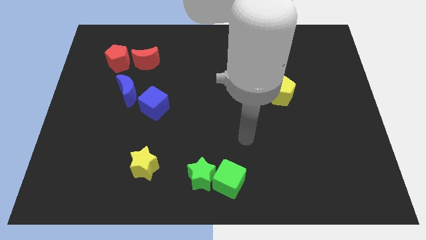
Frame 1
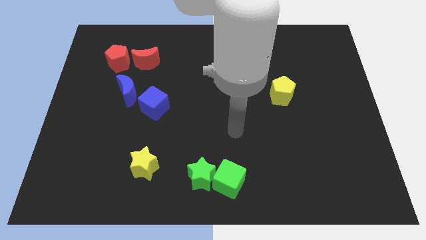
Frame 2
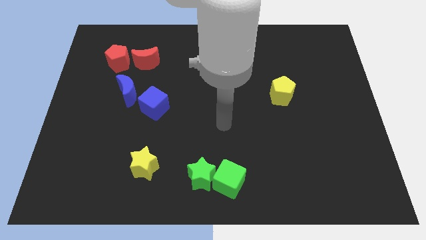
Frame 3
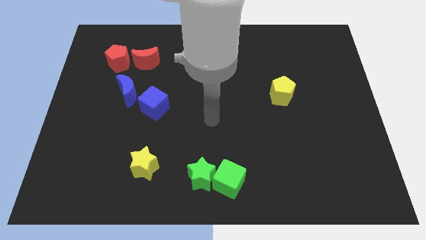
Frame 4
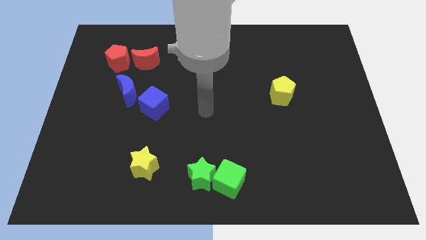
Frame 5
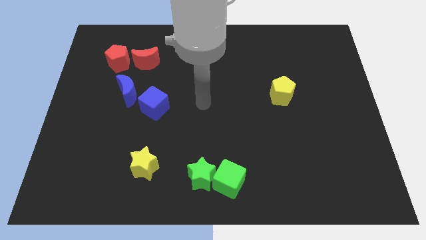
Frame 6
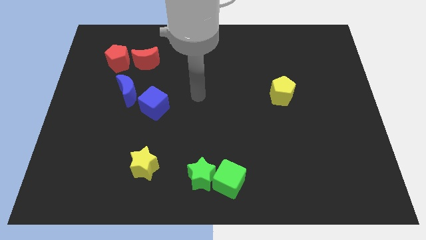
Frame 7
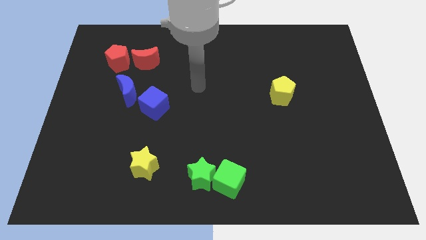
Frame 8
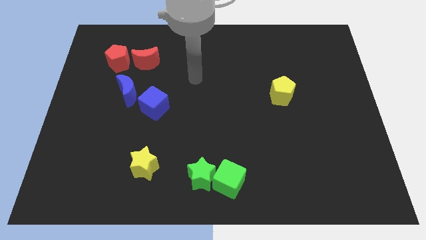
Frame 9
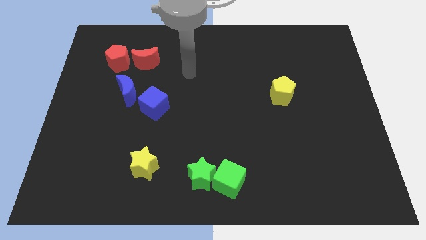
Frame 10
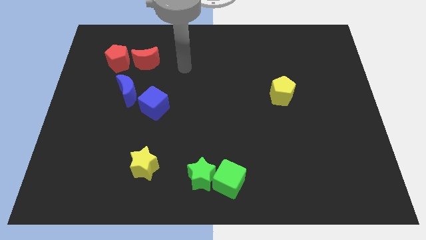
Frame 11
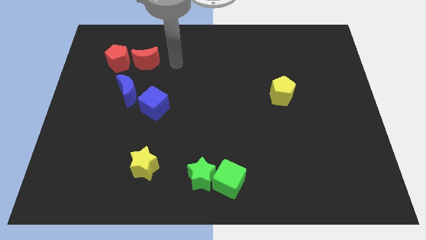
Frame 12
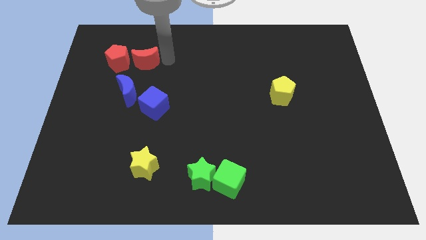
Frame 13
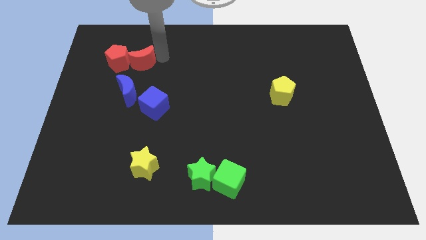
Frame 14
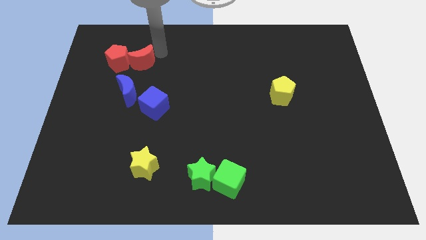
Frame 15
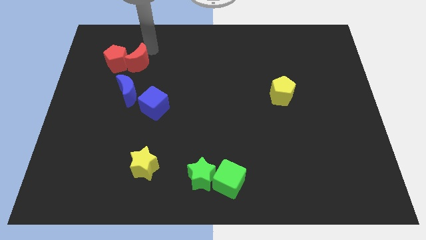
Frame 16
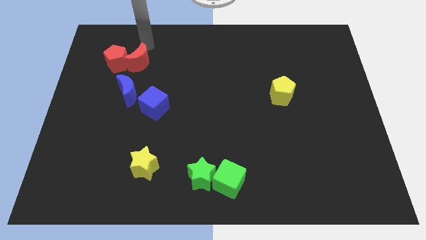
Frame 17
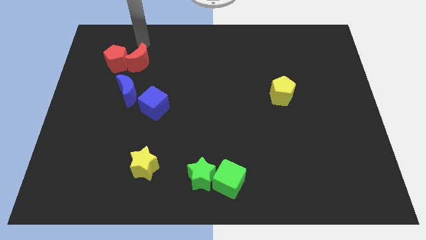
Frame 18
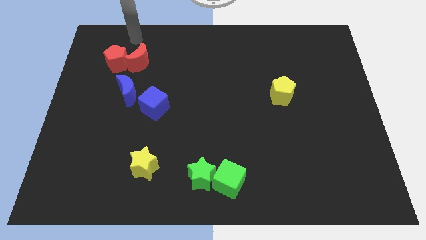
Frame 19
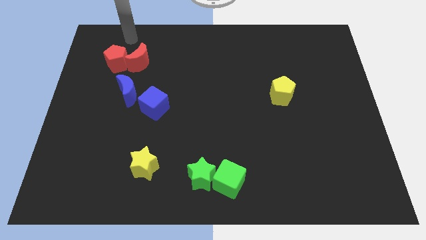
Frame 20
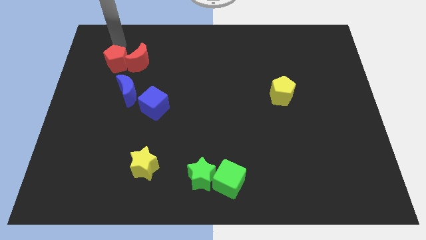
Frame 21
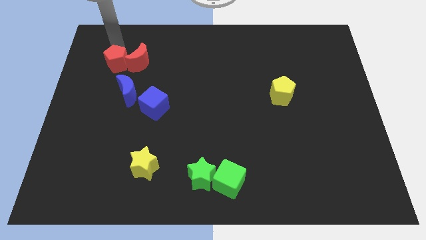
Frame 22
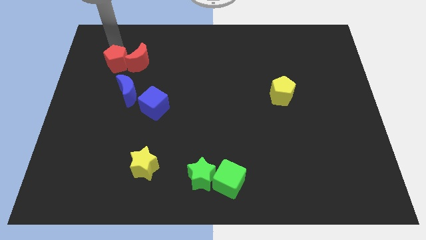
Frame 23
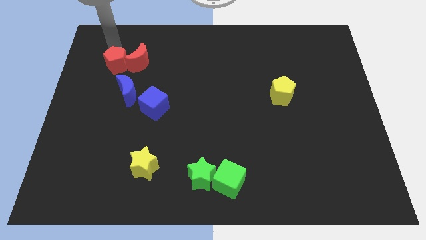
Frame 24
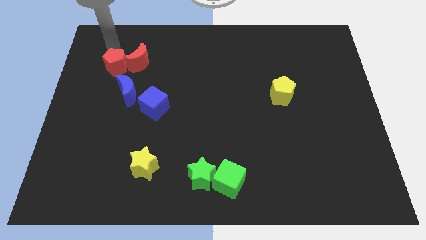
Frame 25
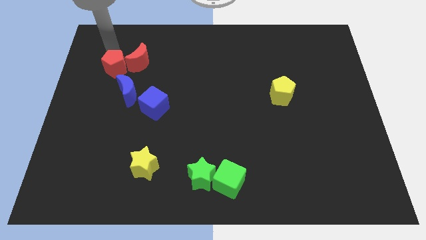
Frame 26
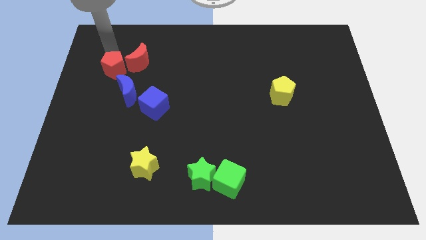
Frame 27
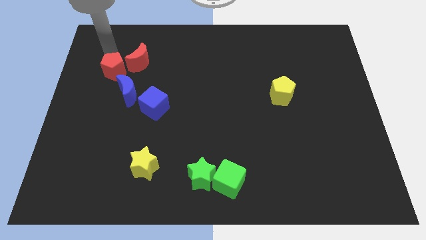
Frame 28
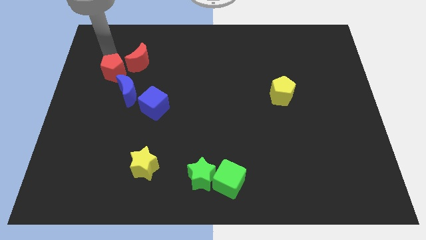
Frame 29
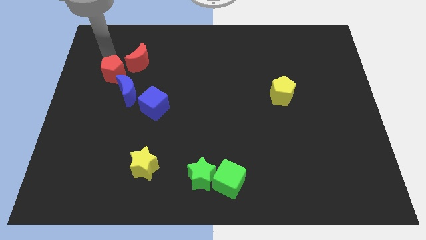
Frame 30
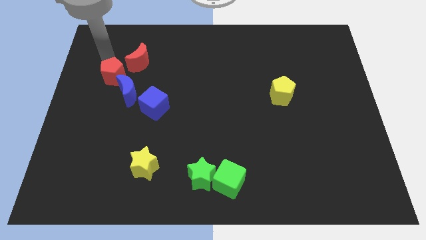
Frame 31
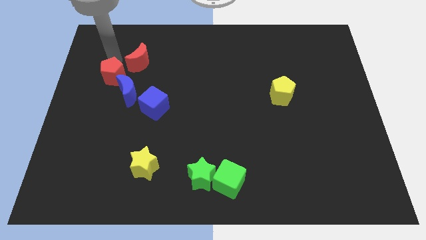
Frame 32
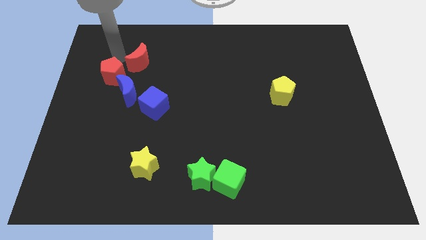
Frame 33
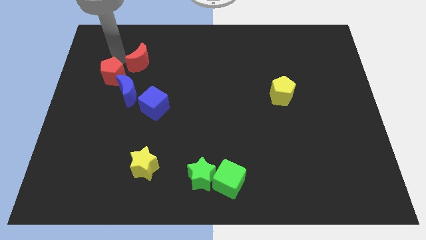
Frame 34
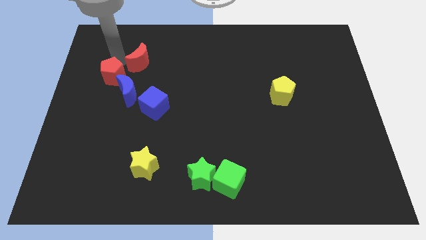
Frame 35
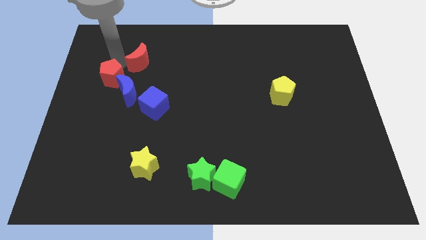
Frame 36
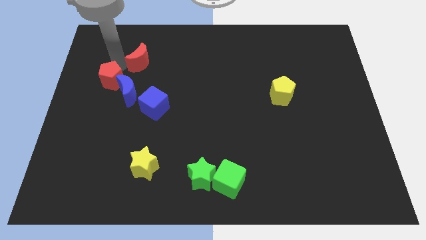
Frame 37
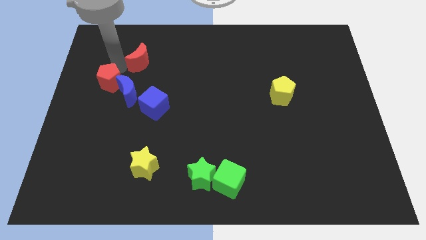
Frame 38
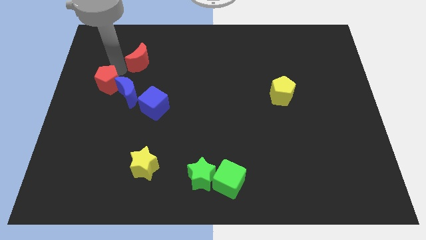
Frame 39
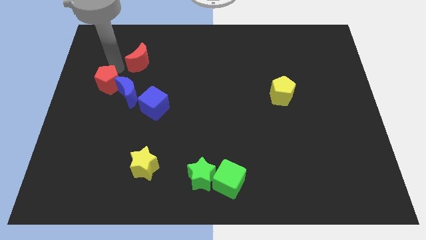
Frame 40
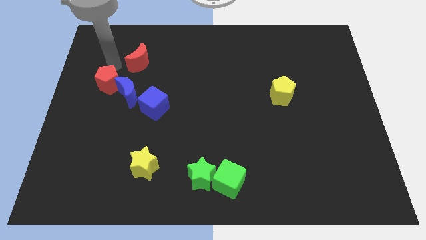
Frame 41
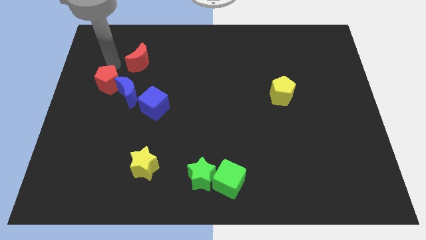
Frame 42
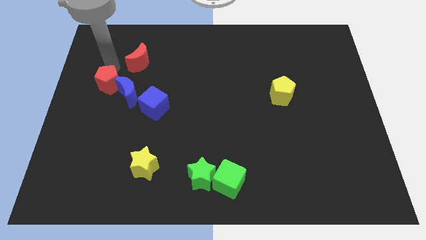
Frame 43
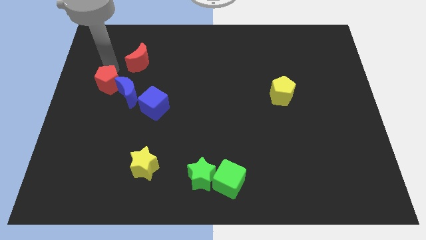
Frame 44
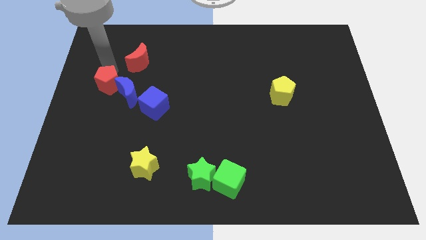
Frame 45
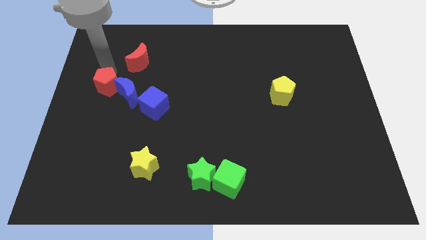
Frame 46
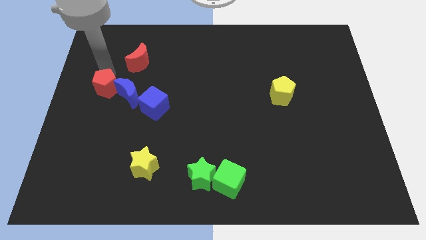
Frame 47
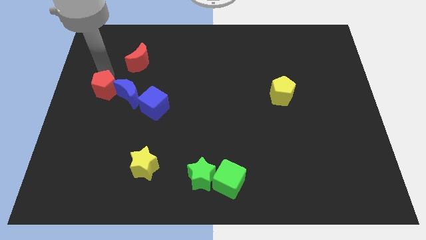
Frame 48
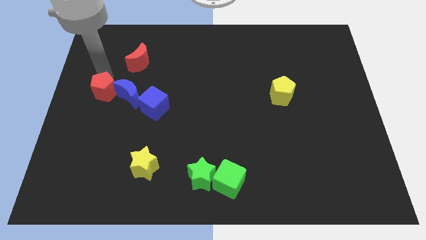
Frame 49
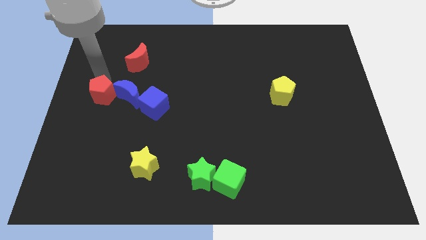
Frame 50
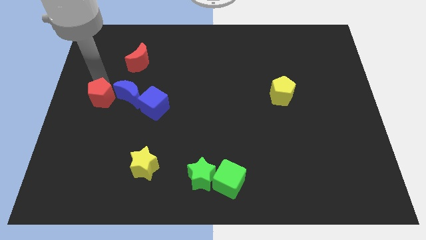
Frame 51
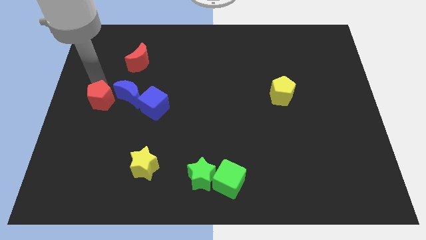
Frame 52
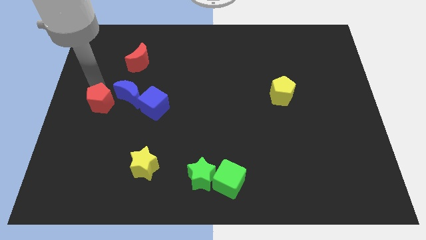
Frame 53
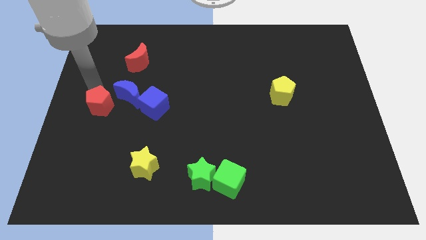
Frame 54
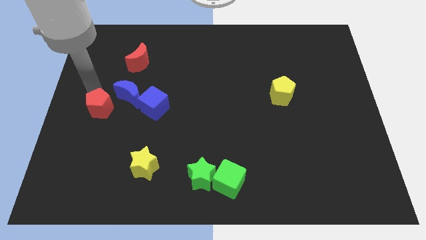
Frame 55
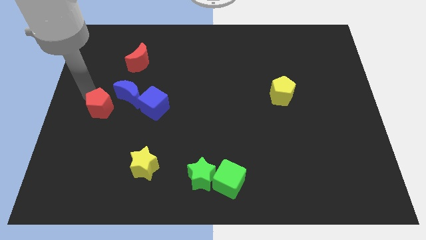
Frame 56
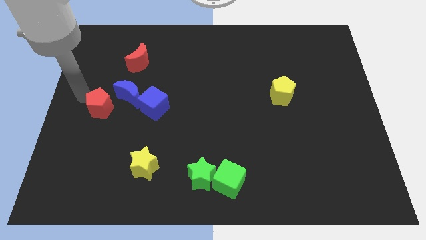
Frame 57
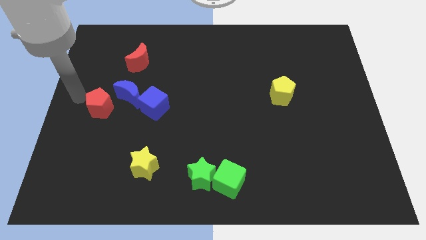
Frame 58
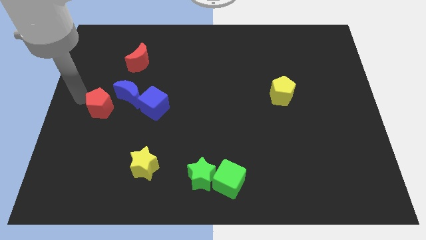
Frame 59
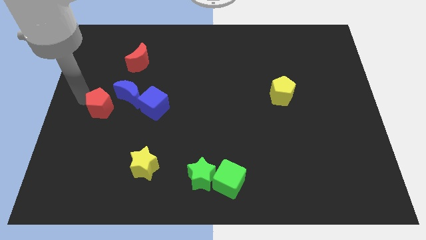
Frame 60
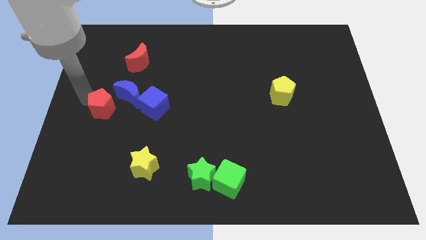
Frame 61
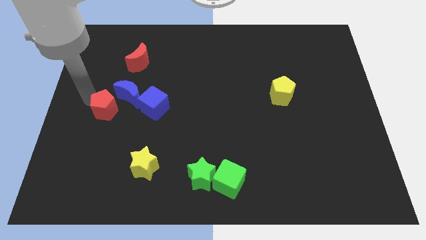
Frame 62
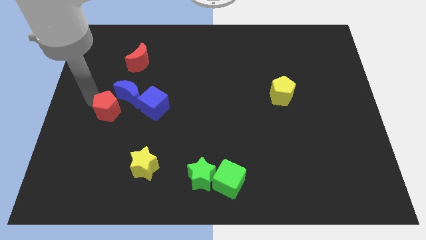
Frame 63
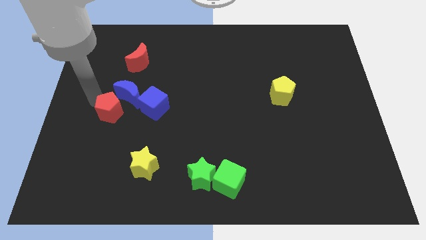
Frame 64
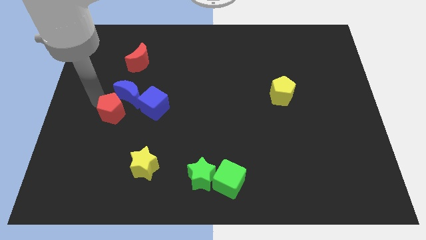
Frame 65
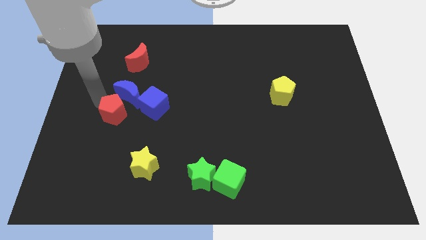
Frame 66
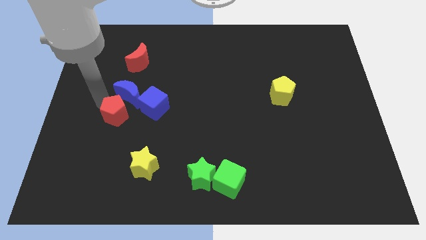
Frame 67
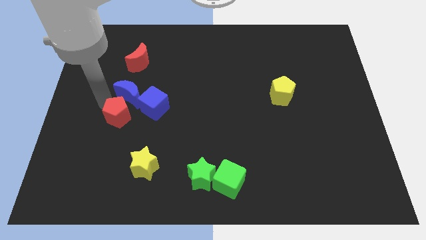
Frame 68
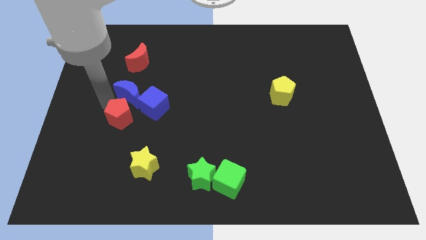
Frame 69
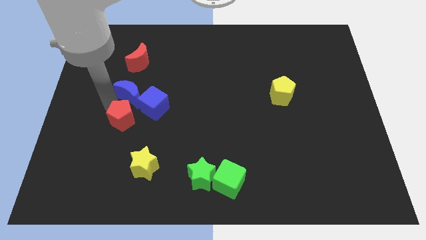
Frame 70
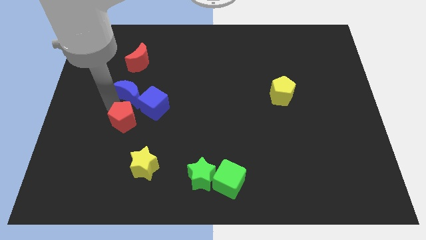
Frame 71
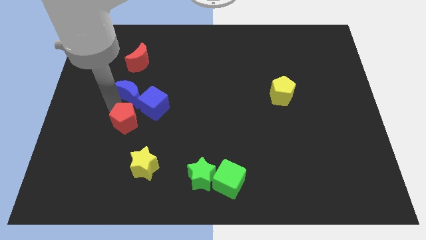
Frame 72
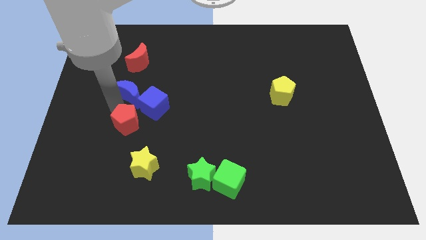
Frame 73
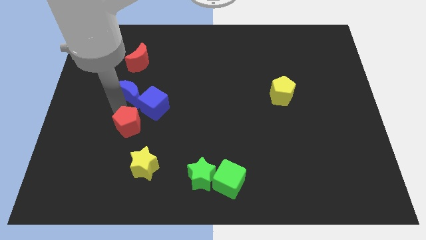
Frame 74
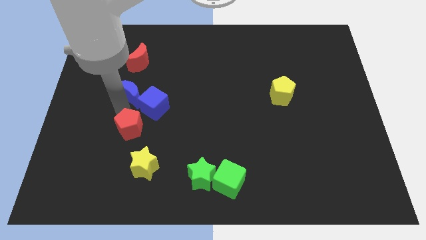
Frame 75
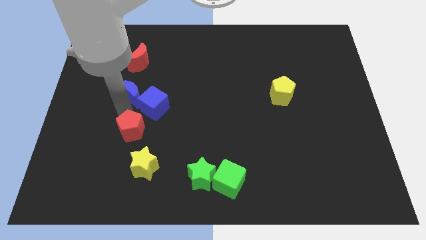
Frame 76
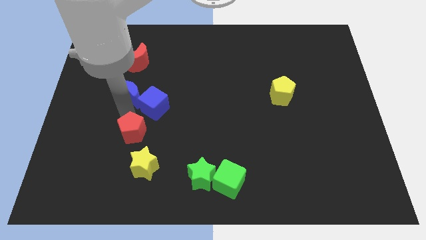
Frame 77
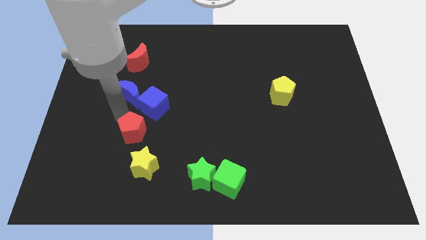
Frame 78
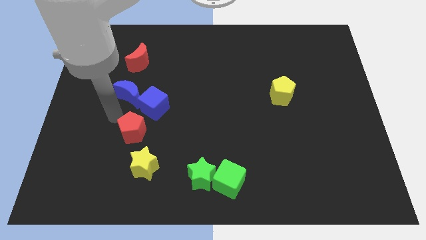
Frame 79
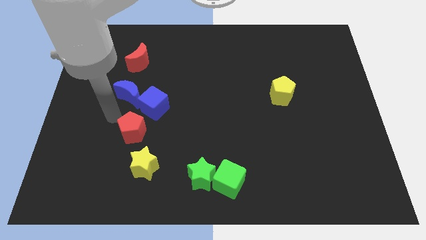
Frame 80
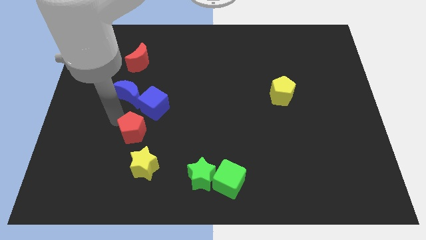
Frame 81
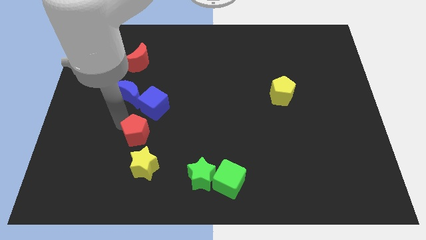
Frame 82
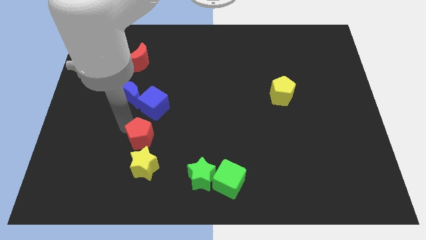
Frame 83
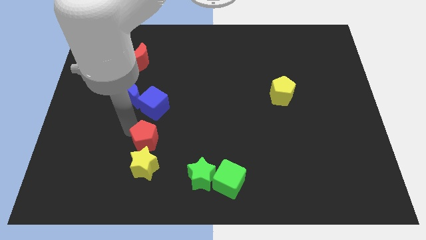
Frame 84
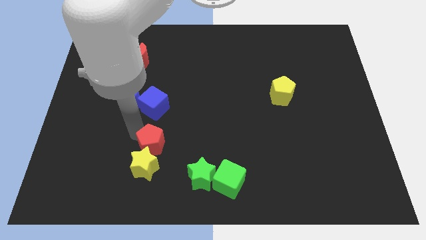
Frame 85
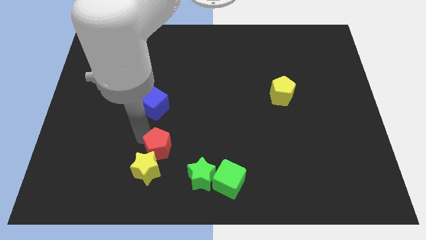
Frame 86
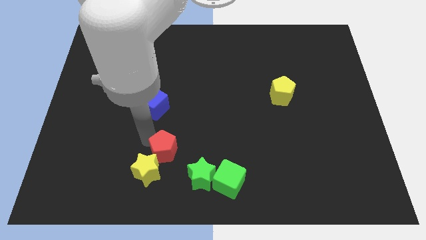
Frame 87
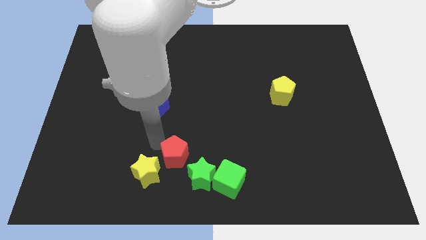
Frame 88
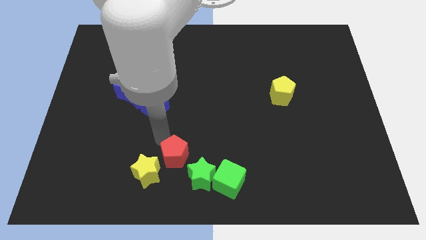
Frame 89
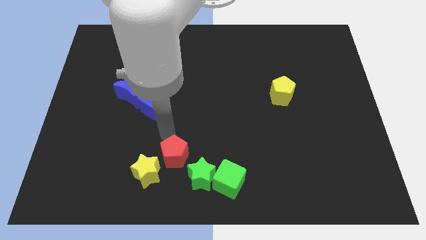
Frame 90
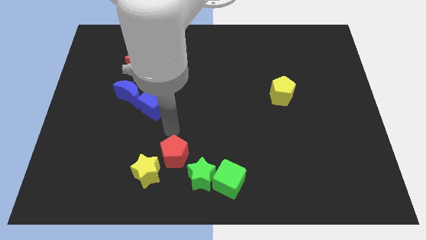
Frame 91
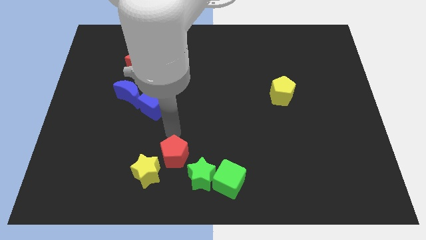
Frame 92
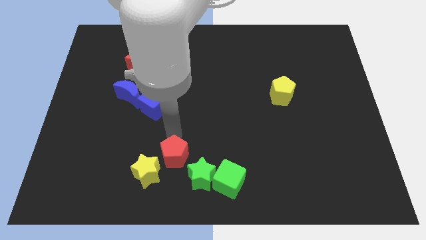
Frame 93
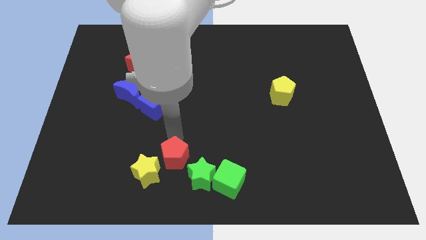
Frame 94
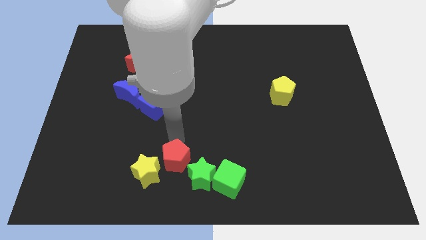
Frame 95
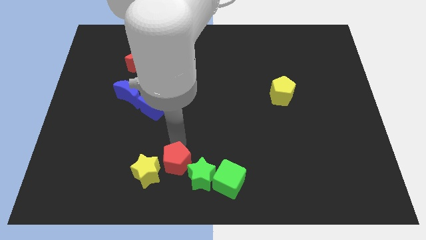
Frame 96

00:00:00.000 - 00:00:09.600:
slide the red pentagon to the bottom
